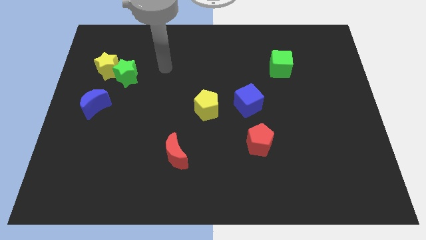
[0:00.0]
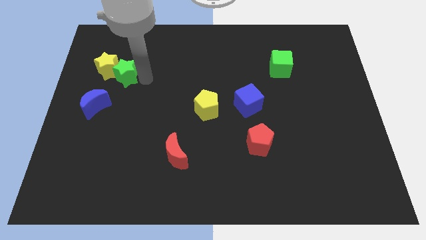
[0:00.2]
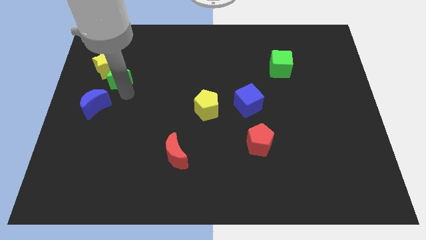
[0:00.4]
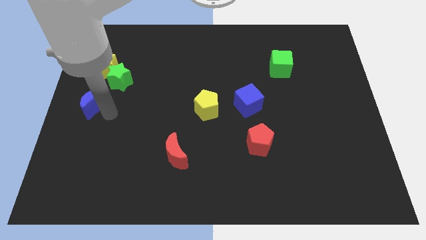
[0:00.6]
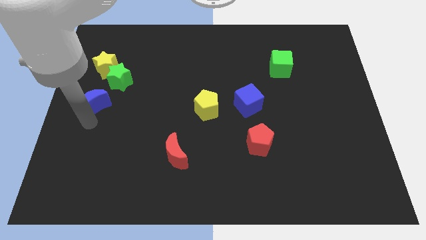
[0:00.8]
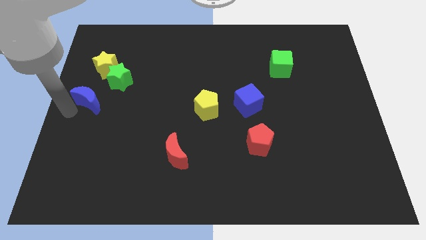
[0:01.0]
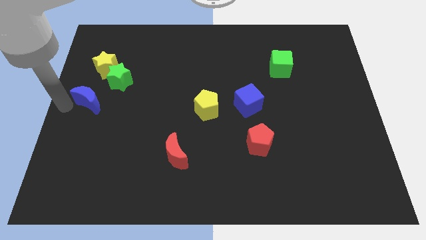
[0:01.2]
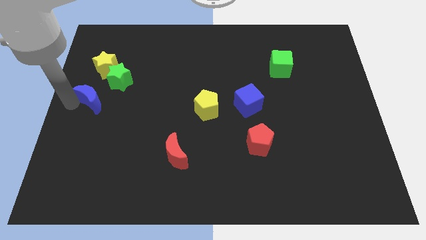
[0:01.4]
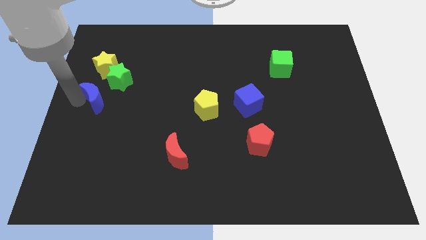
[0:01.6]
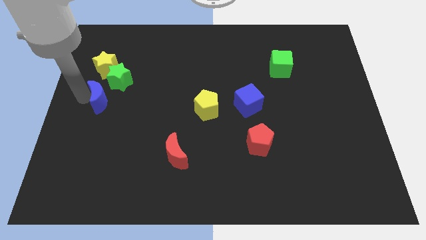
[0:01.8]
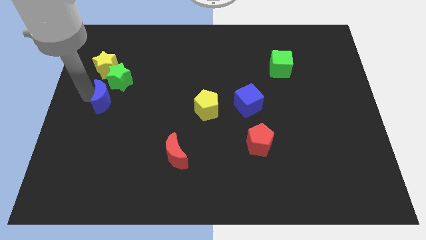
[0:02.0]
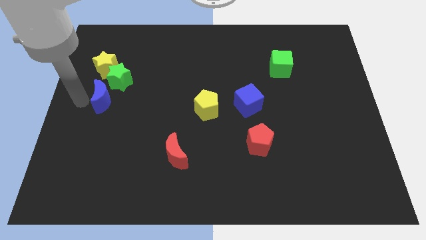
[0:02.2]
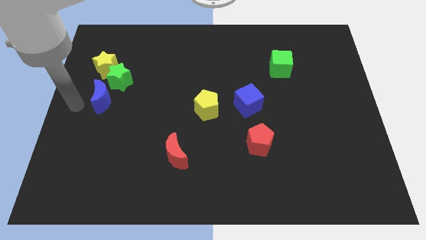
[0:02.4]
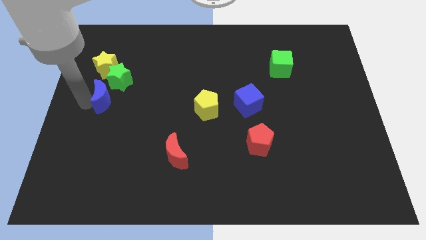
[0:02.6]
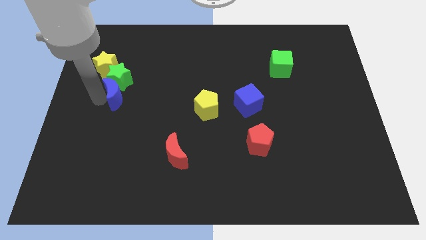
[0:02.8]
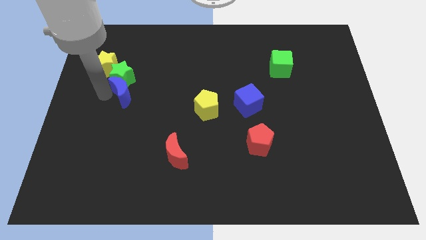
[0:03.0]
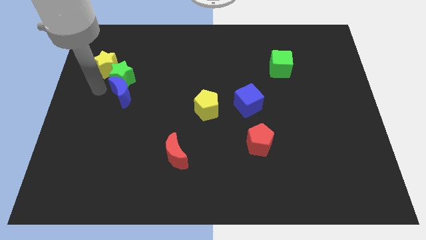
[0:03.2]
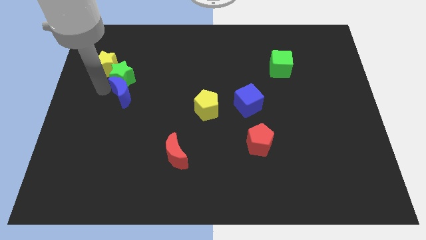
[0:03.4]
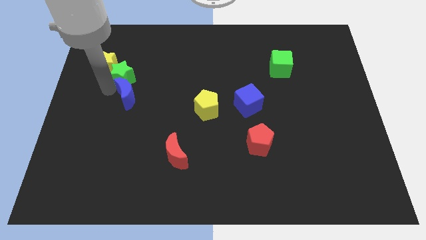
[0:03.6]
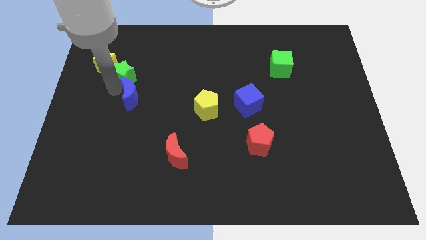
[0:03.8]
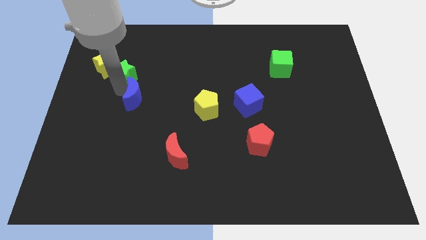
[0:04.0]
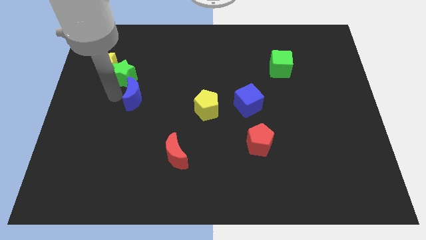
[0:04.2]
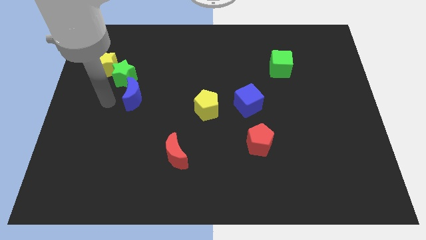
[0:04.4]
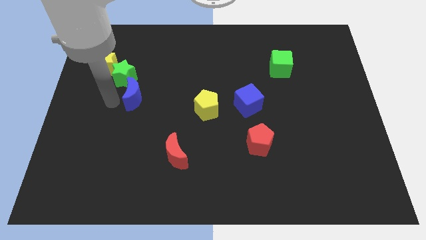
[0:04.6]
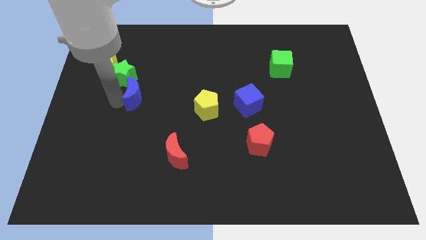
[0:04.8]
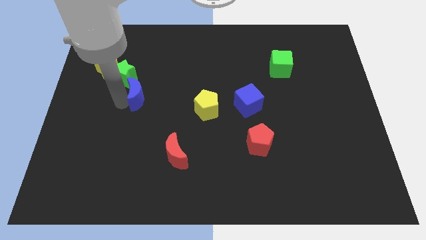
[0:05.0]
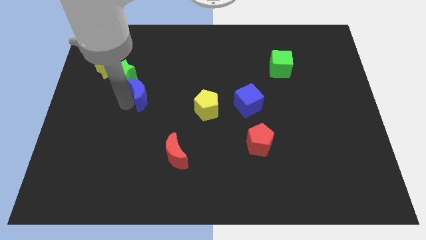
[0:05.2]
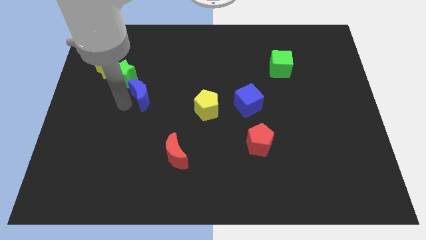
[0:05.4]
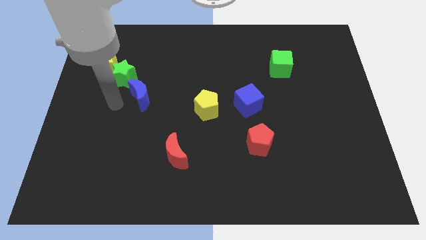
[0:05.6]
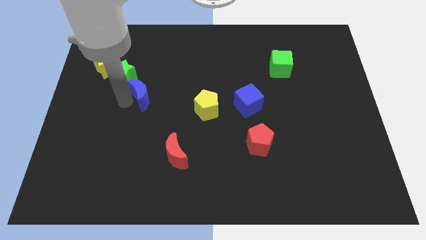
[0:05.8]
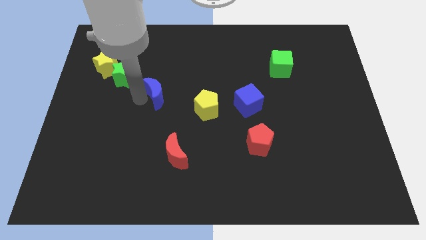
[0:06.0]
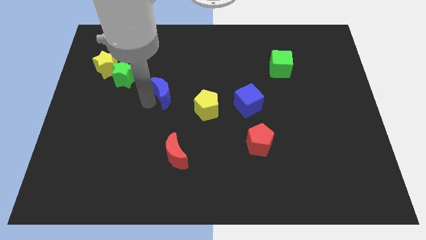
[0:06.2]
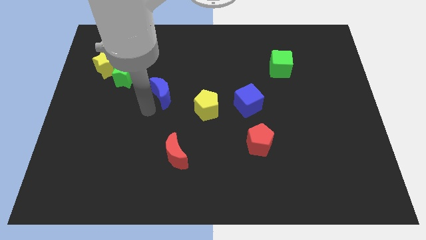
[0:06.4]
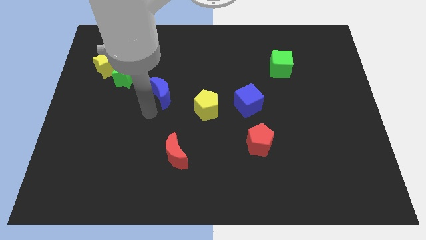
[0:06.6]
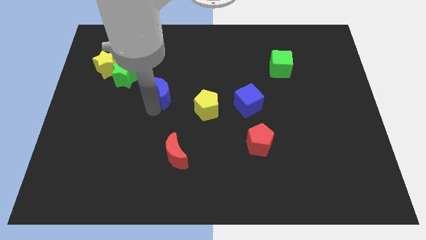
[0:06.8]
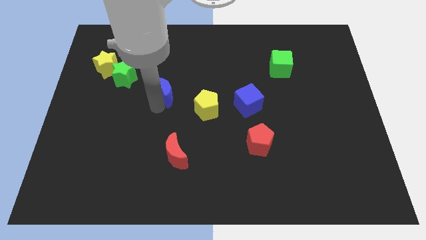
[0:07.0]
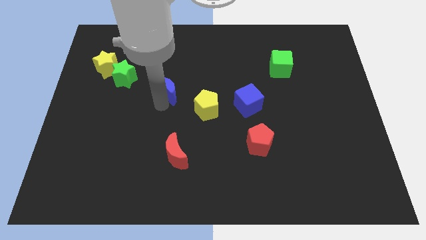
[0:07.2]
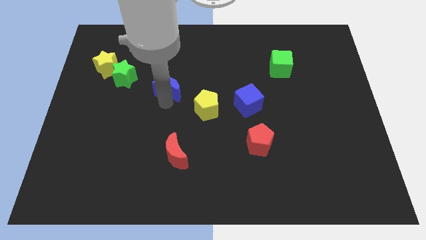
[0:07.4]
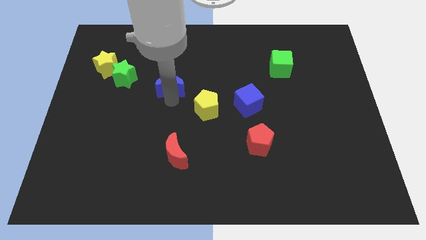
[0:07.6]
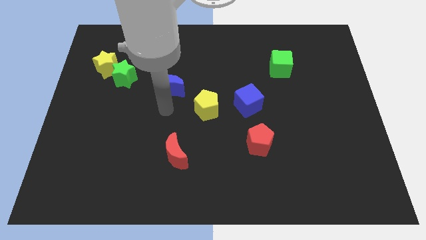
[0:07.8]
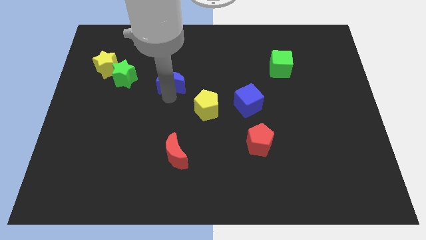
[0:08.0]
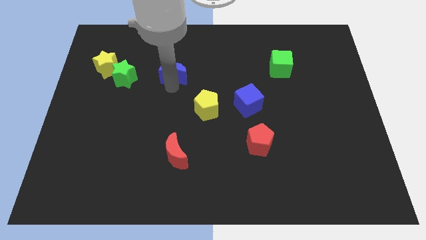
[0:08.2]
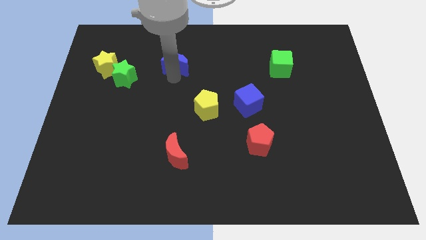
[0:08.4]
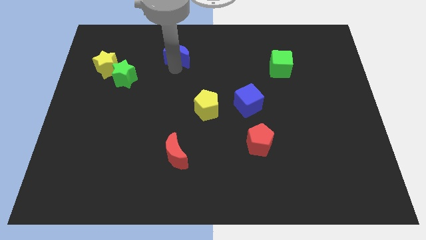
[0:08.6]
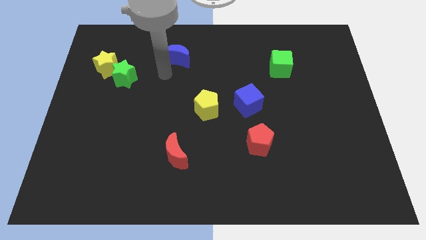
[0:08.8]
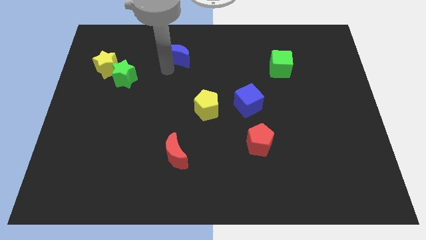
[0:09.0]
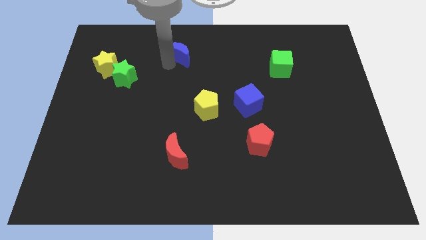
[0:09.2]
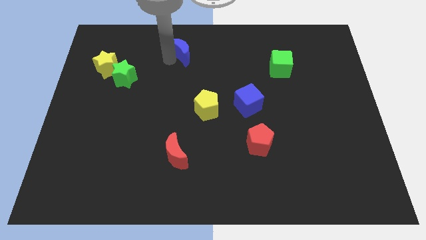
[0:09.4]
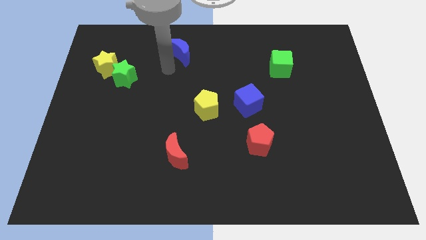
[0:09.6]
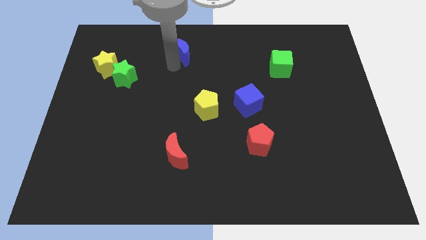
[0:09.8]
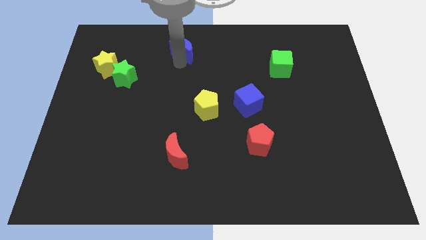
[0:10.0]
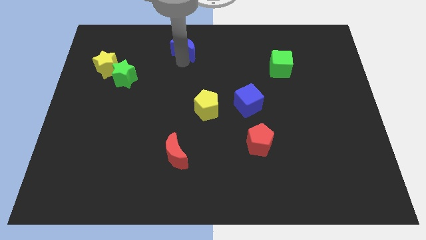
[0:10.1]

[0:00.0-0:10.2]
slide the blue moon to the towards your base

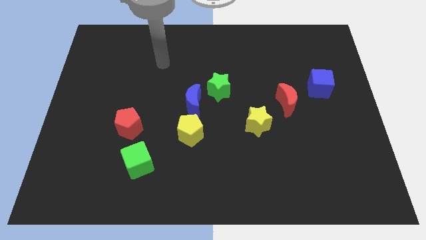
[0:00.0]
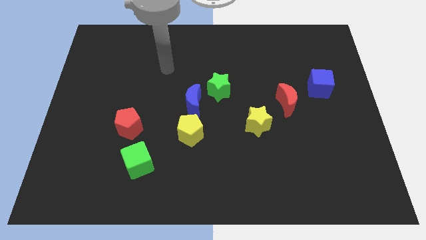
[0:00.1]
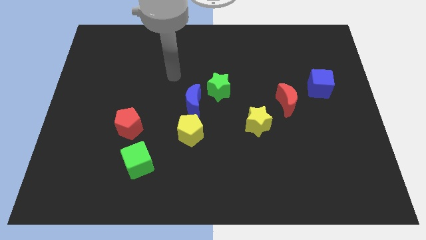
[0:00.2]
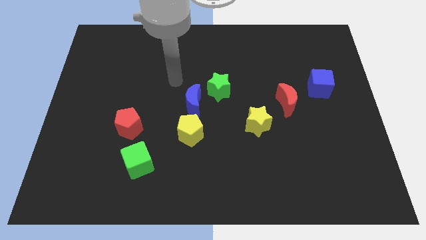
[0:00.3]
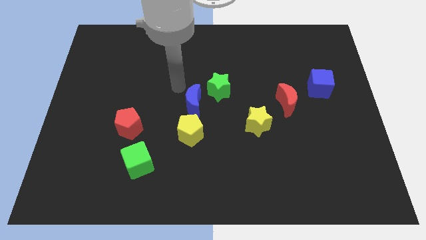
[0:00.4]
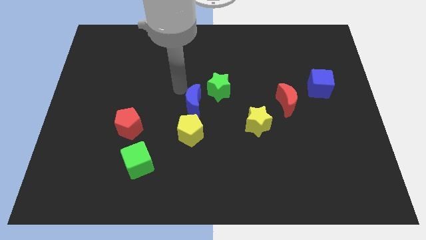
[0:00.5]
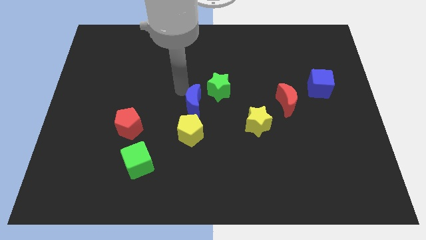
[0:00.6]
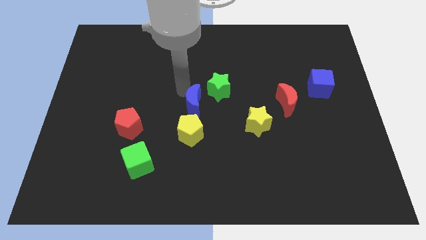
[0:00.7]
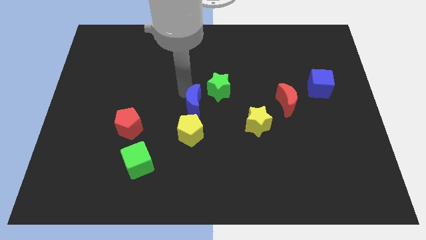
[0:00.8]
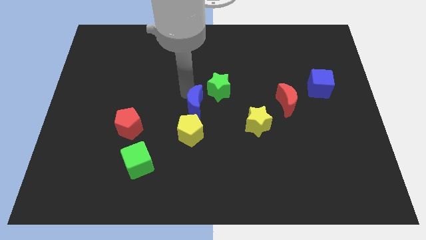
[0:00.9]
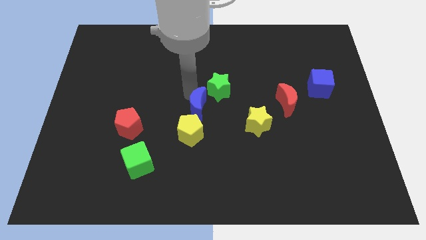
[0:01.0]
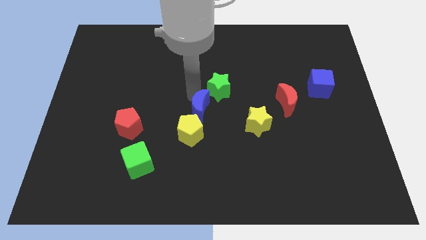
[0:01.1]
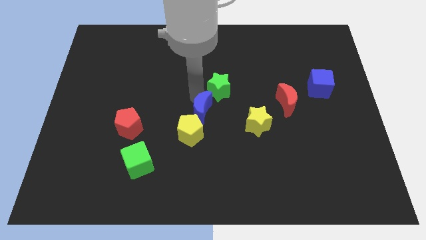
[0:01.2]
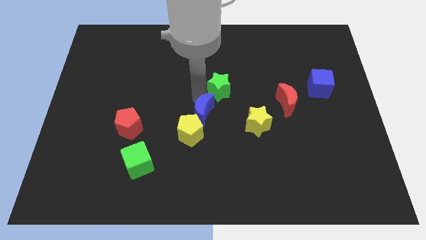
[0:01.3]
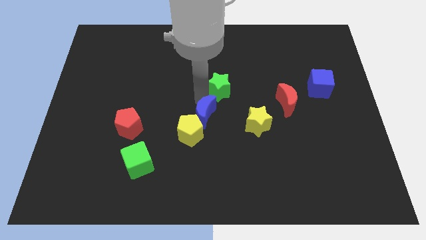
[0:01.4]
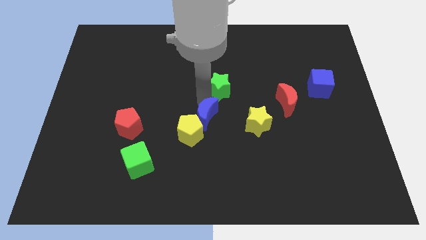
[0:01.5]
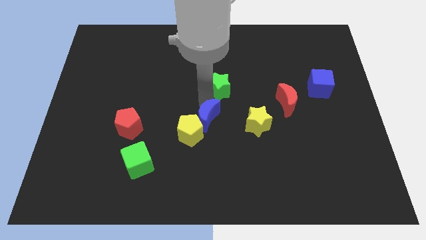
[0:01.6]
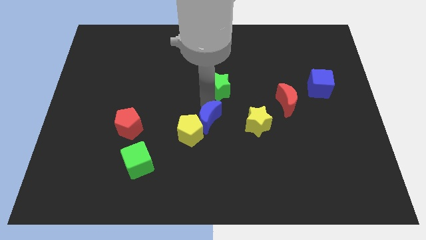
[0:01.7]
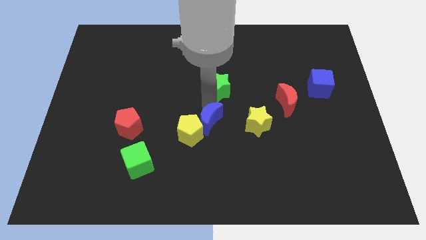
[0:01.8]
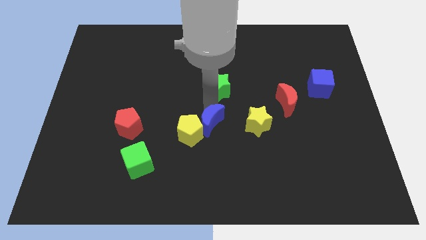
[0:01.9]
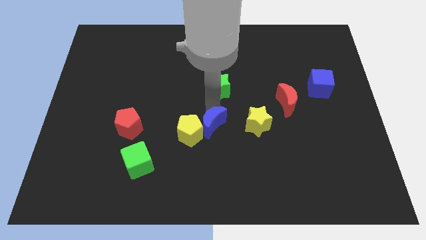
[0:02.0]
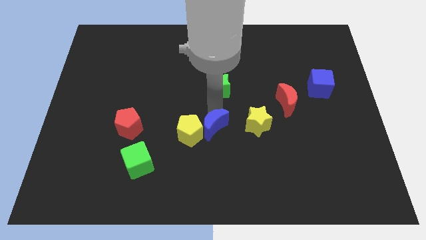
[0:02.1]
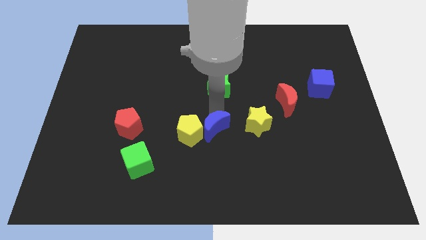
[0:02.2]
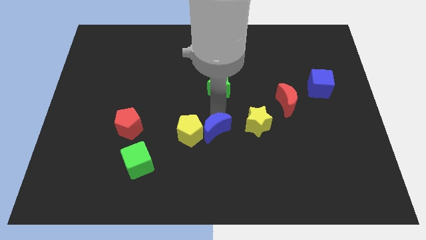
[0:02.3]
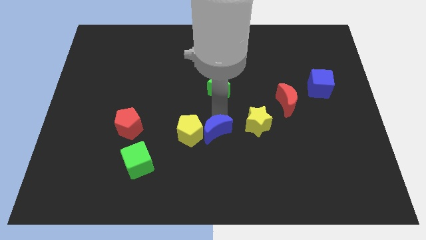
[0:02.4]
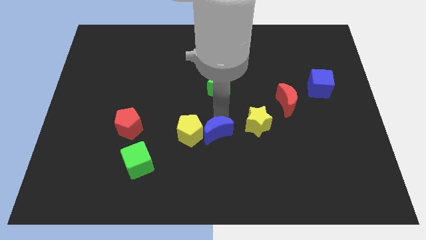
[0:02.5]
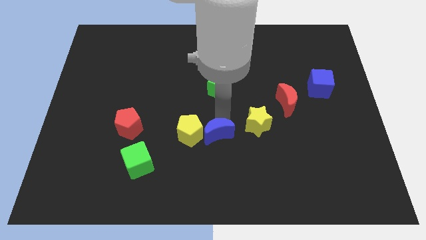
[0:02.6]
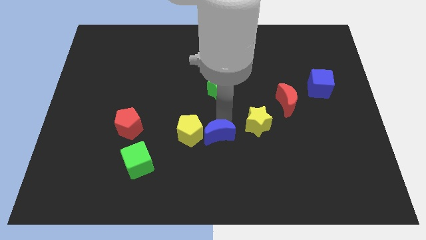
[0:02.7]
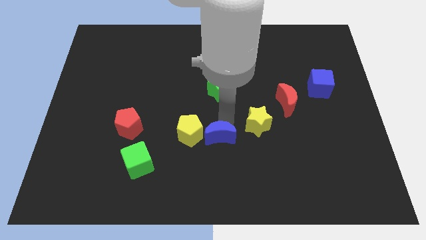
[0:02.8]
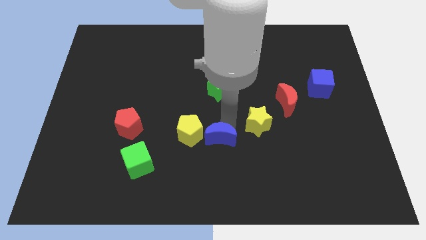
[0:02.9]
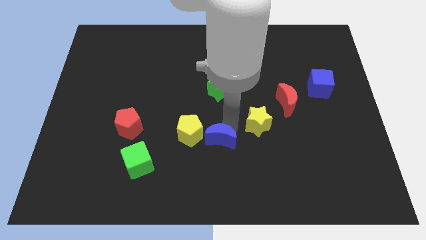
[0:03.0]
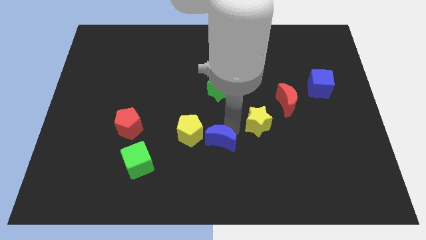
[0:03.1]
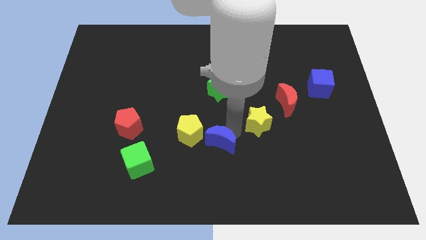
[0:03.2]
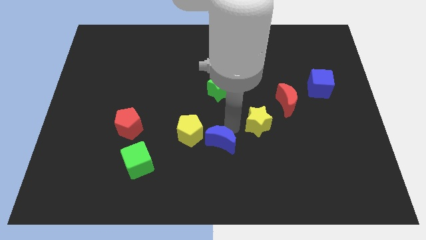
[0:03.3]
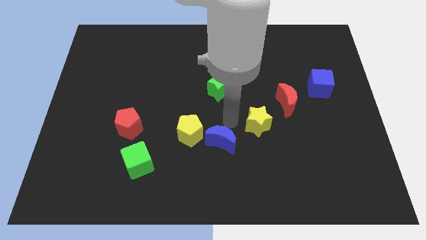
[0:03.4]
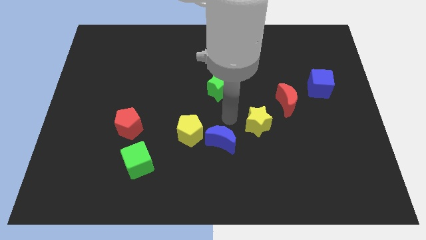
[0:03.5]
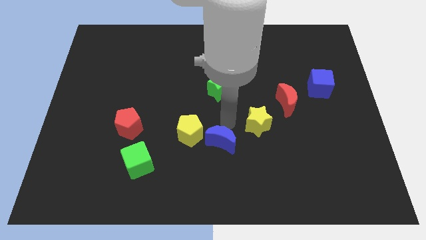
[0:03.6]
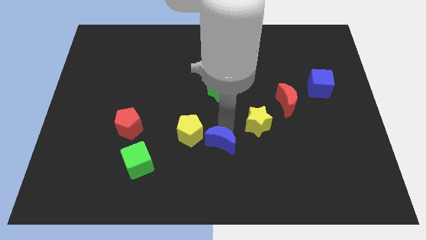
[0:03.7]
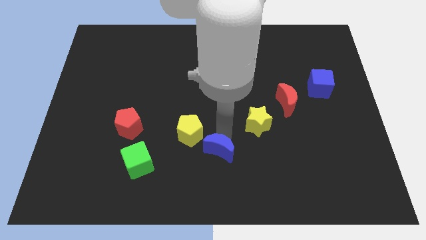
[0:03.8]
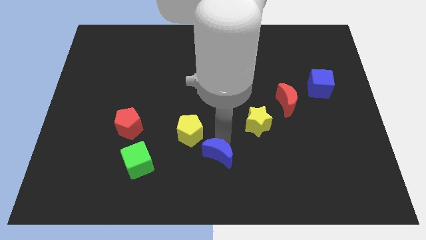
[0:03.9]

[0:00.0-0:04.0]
move the blue moon to the bottom side
